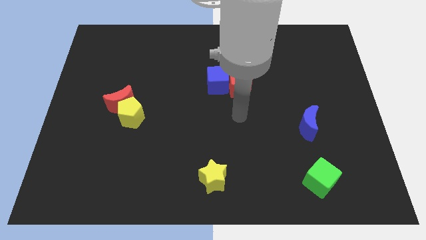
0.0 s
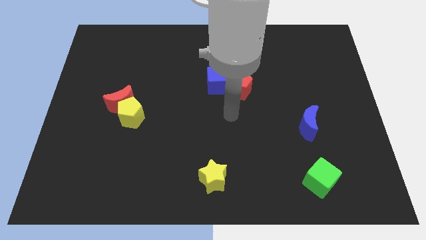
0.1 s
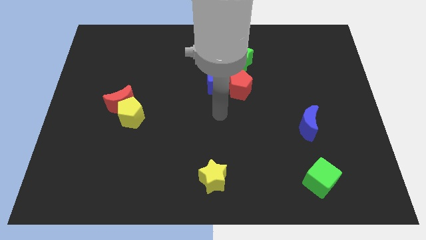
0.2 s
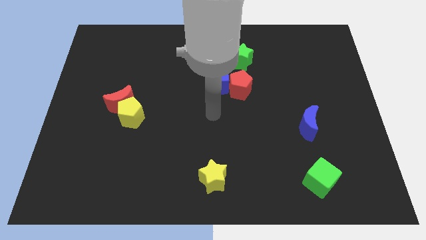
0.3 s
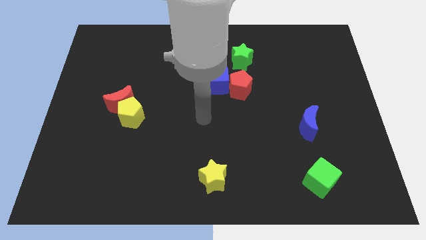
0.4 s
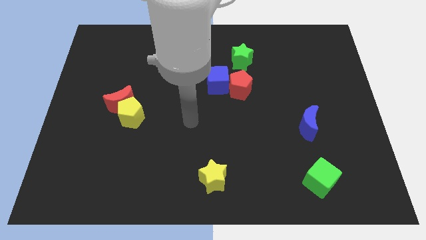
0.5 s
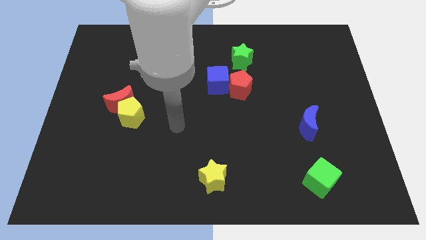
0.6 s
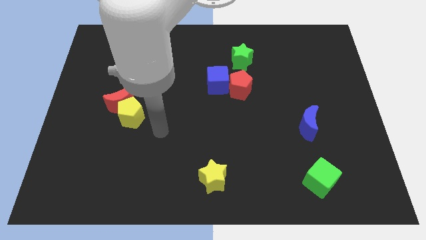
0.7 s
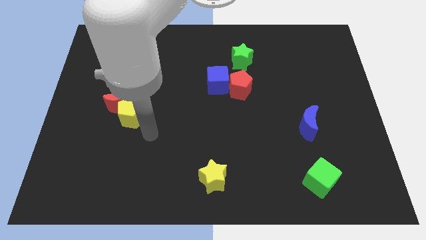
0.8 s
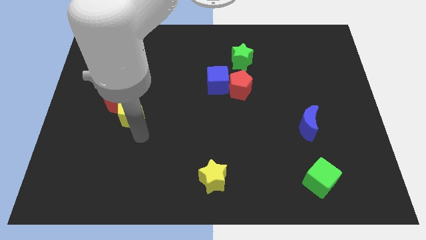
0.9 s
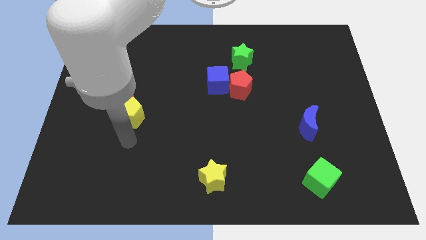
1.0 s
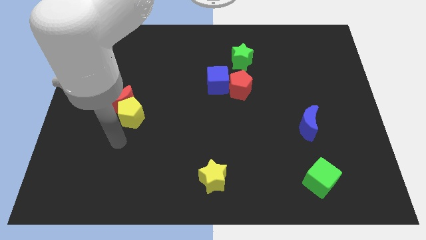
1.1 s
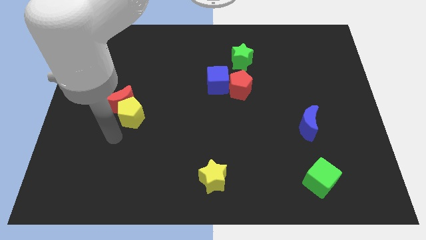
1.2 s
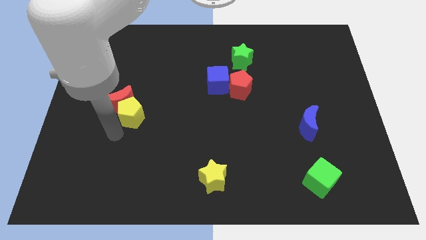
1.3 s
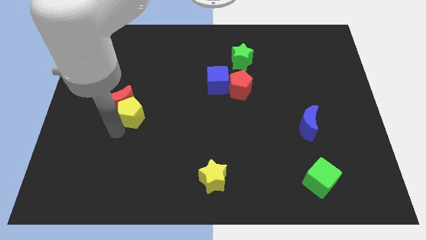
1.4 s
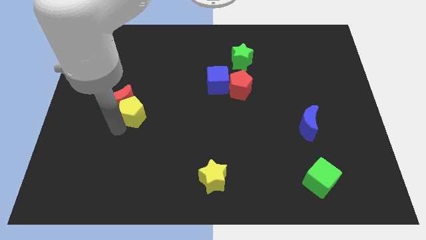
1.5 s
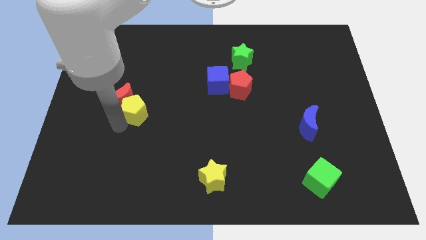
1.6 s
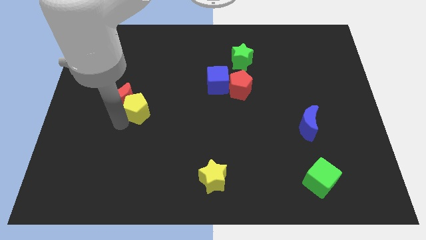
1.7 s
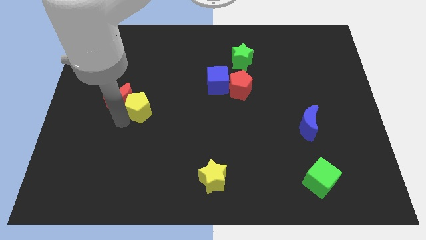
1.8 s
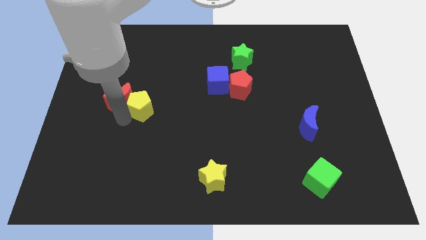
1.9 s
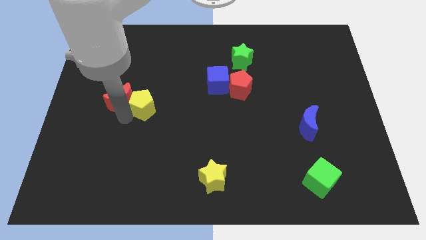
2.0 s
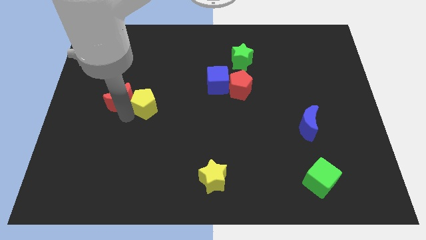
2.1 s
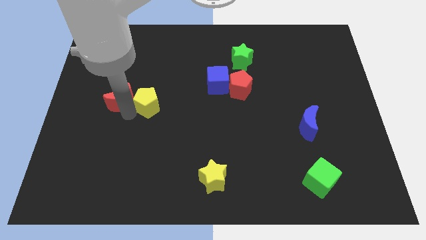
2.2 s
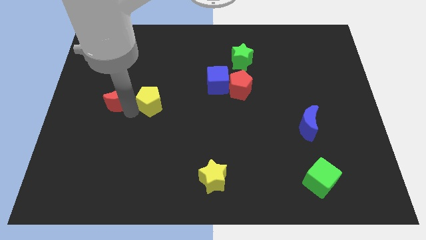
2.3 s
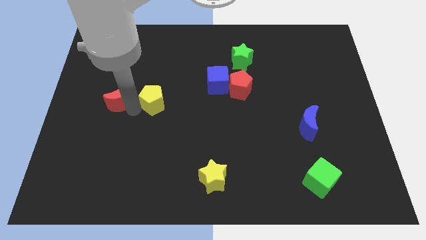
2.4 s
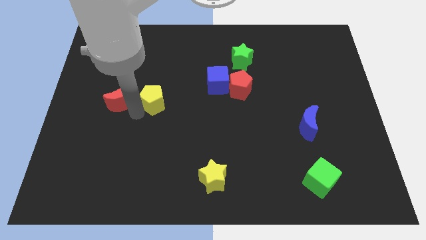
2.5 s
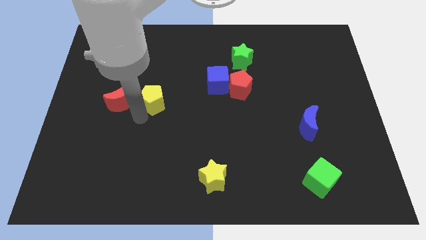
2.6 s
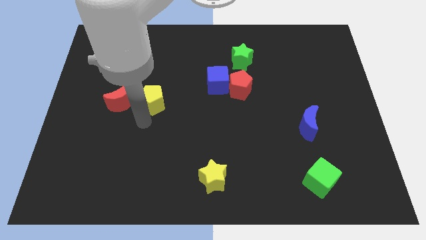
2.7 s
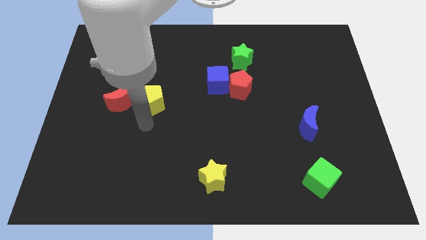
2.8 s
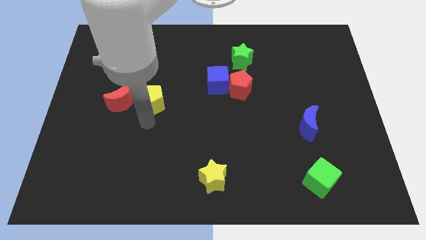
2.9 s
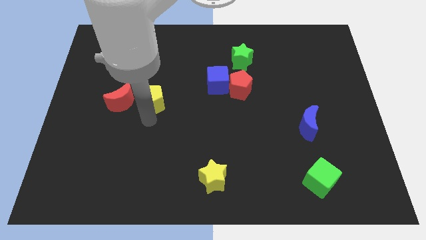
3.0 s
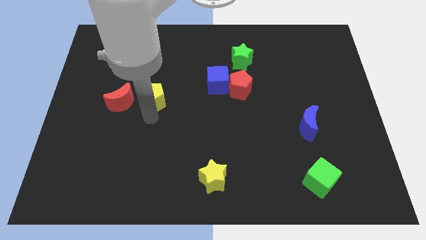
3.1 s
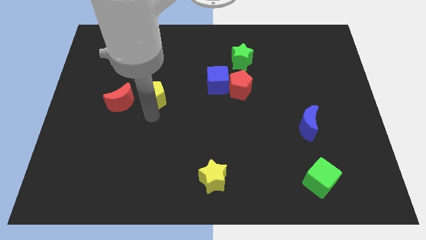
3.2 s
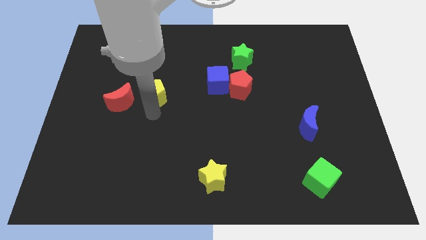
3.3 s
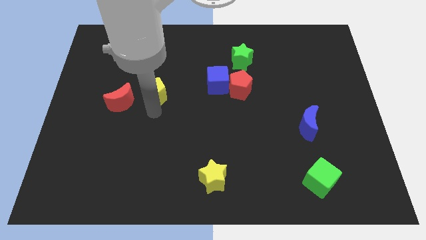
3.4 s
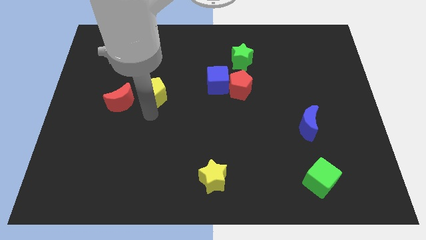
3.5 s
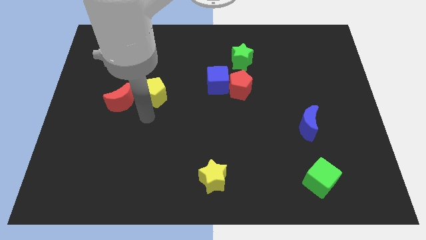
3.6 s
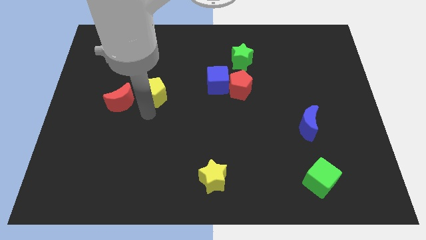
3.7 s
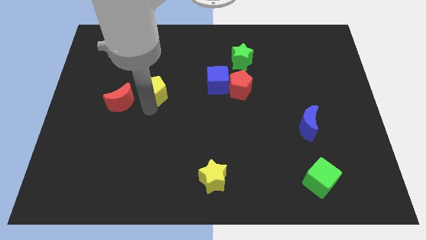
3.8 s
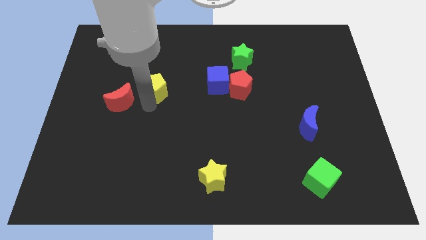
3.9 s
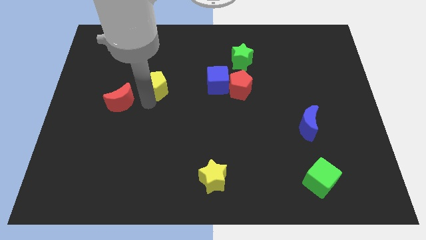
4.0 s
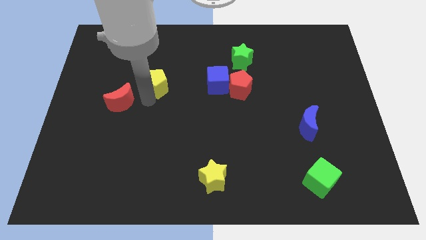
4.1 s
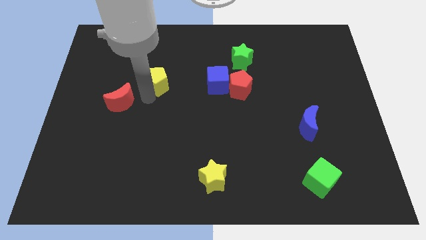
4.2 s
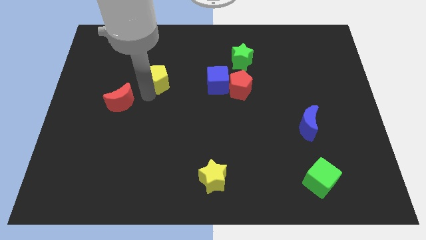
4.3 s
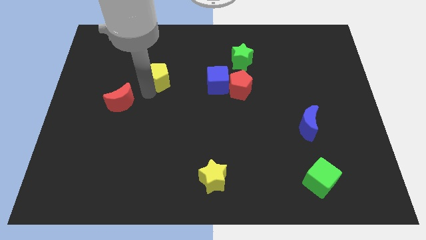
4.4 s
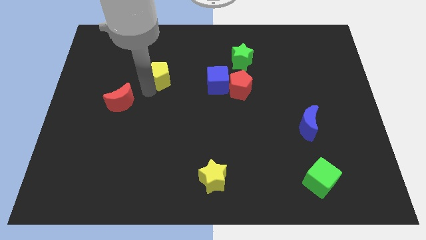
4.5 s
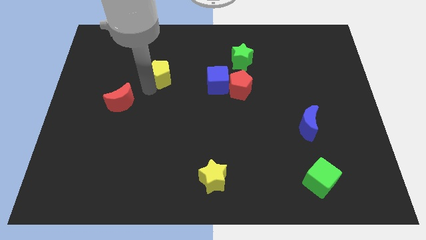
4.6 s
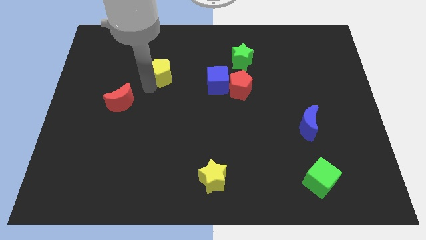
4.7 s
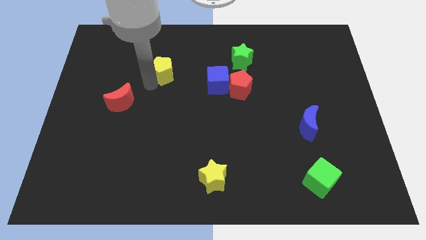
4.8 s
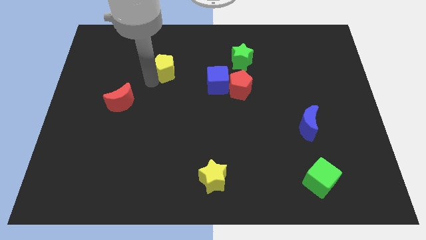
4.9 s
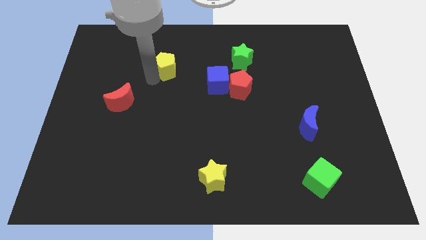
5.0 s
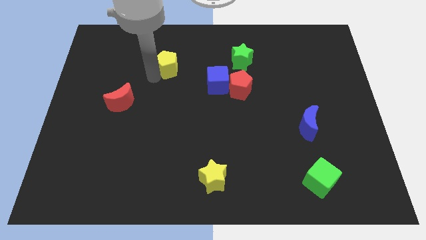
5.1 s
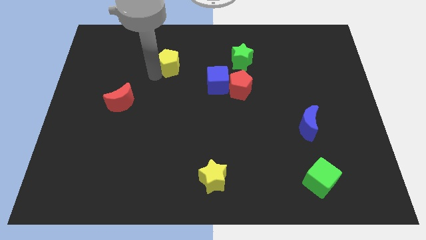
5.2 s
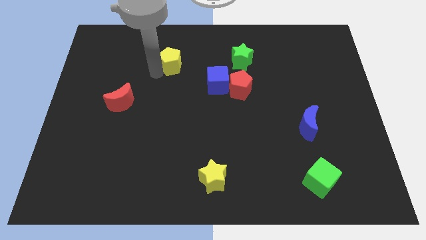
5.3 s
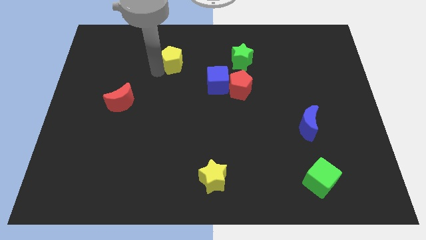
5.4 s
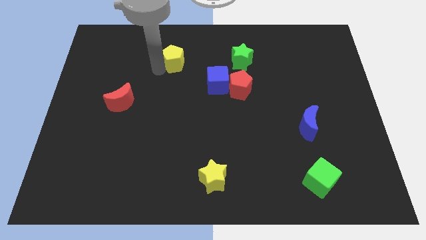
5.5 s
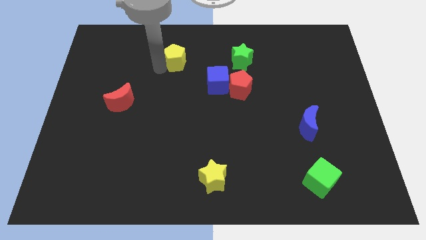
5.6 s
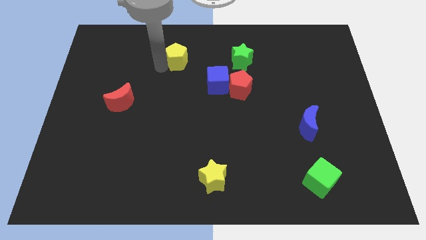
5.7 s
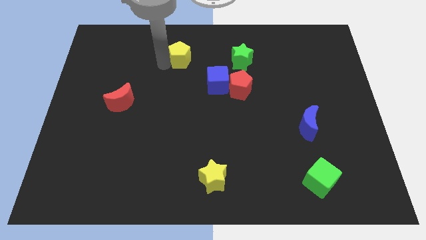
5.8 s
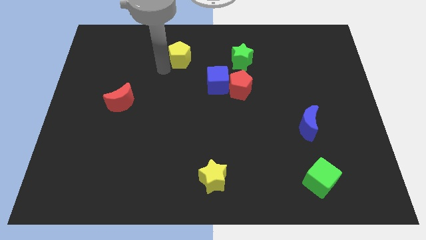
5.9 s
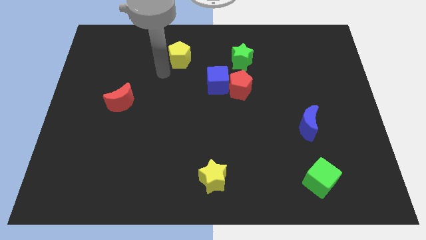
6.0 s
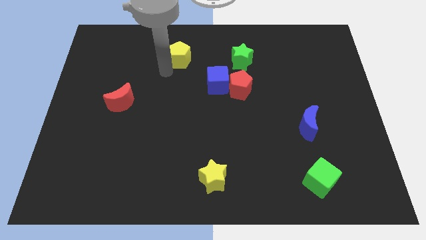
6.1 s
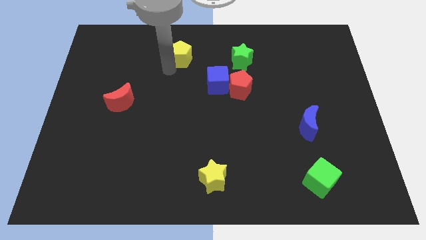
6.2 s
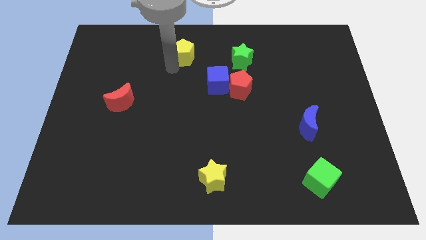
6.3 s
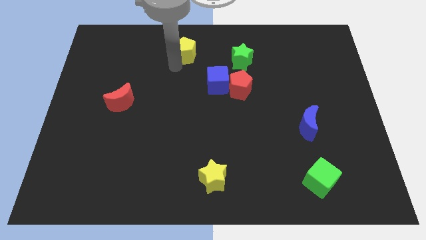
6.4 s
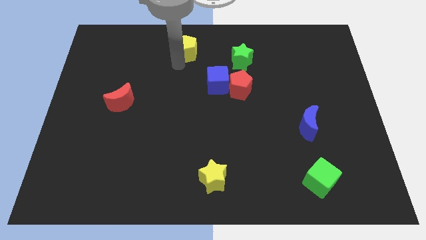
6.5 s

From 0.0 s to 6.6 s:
slide the yellow pentagon to the top
